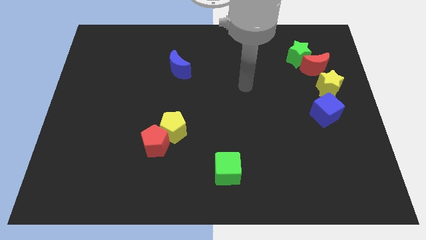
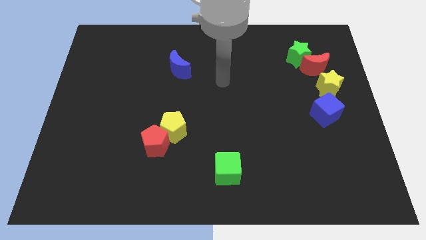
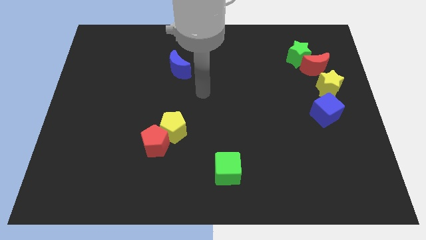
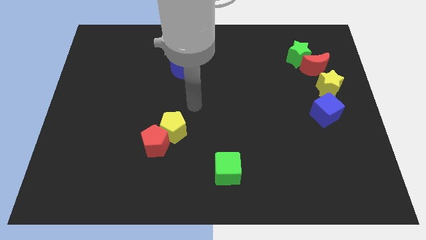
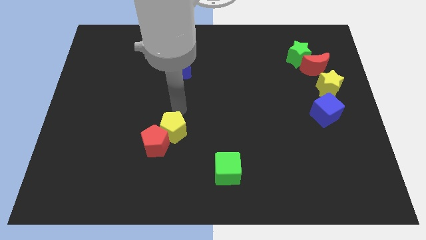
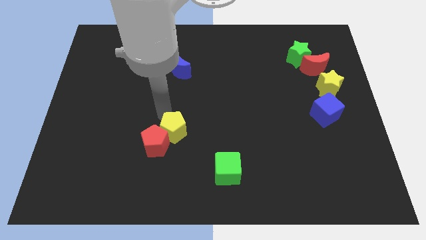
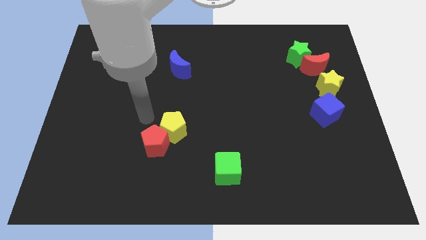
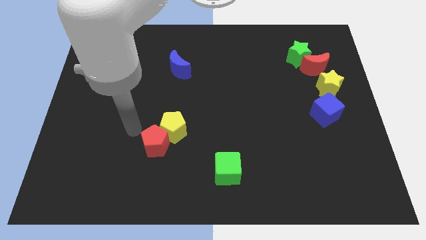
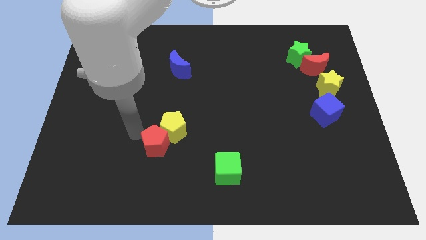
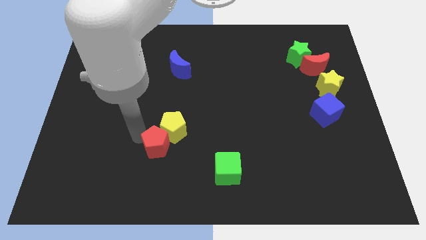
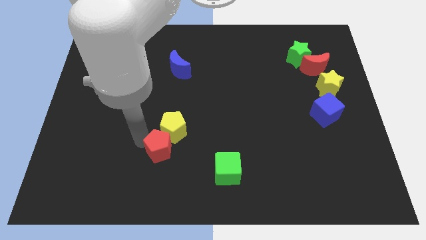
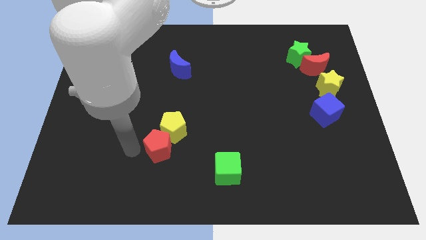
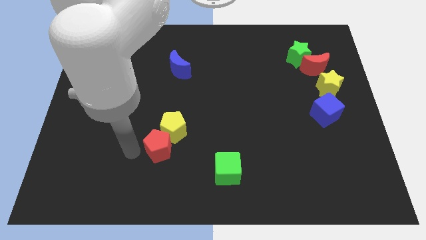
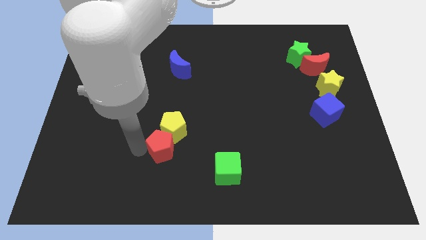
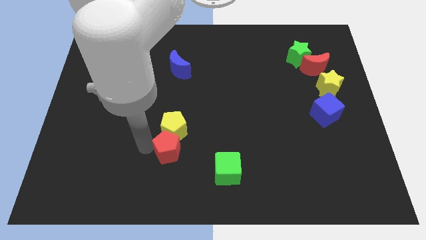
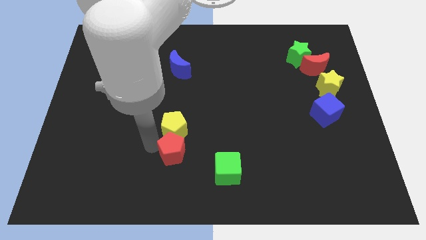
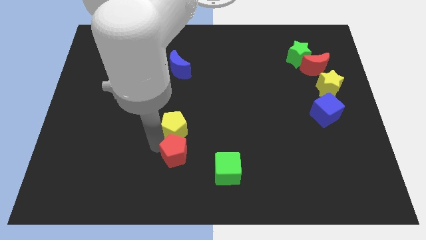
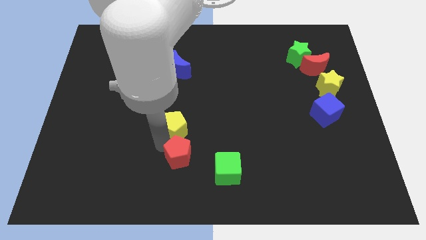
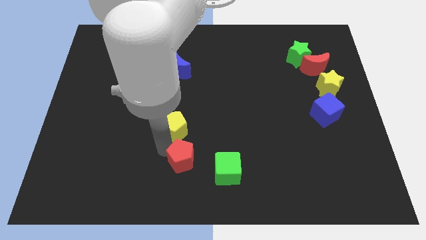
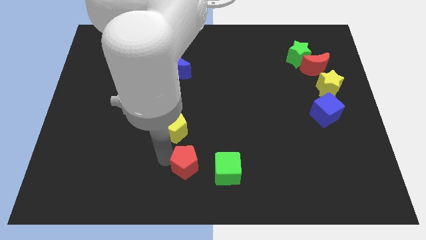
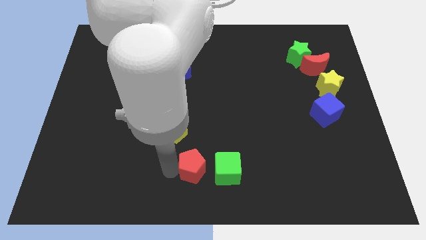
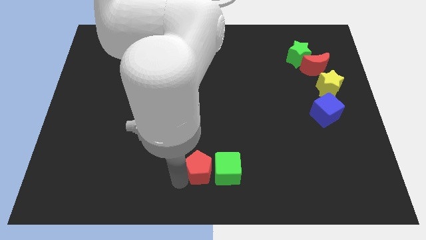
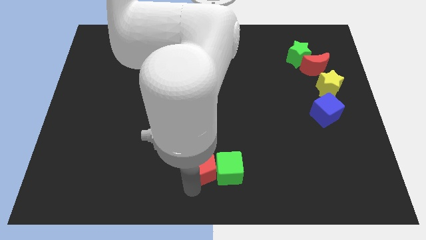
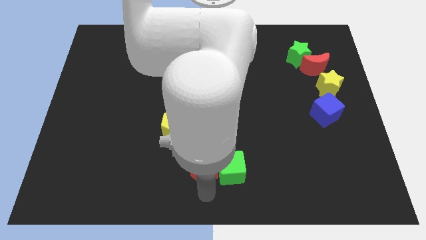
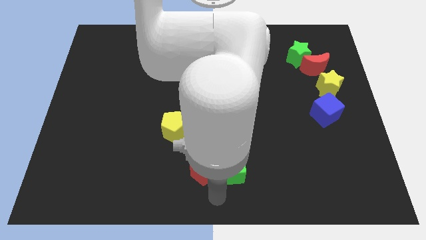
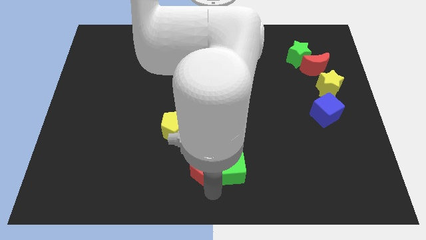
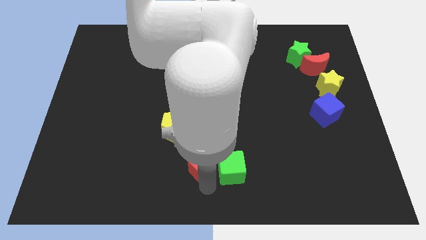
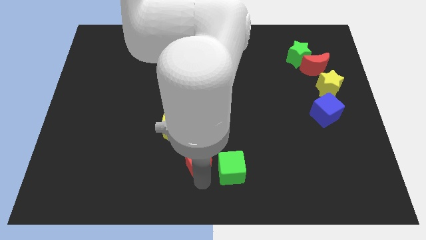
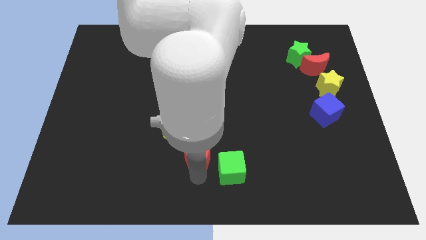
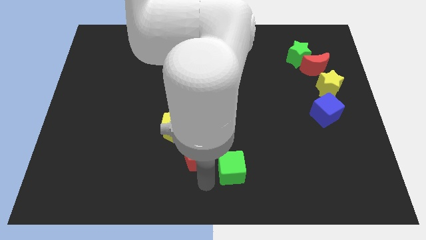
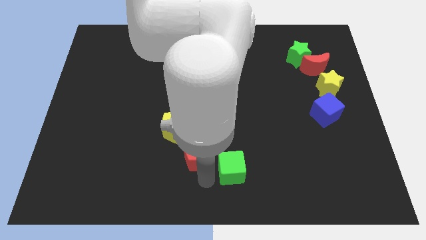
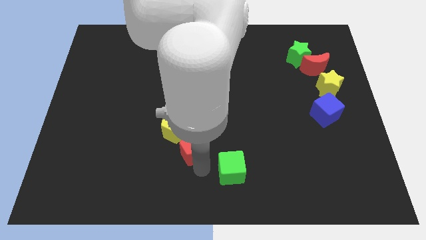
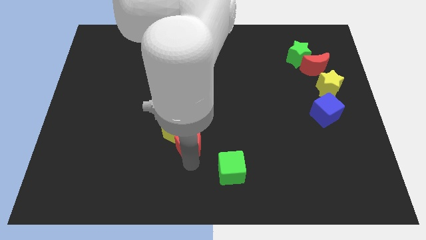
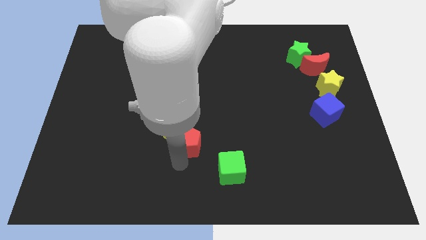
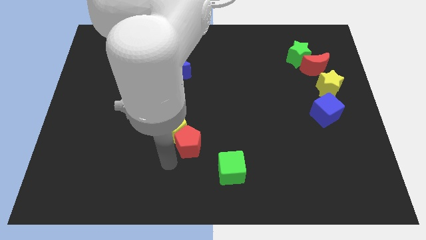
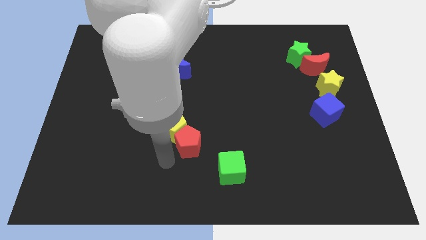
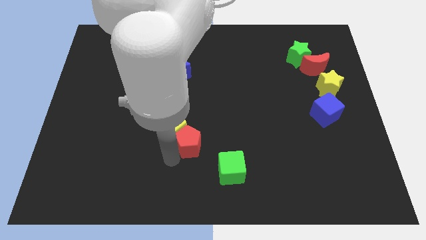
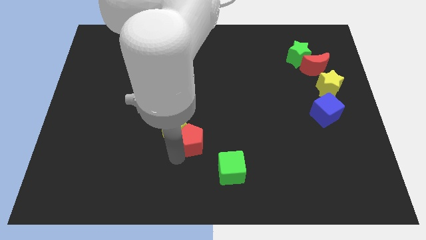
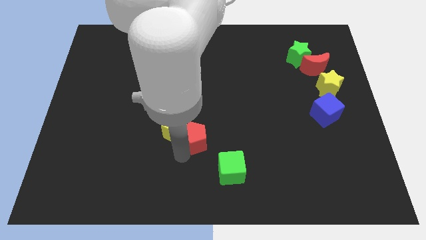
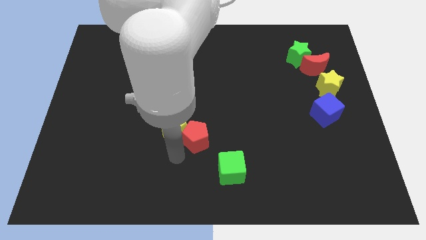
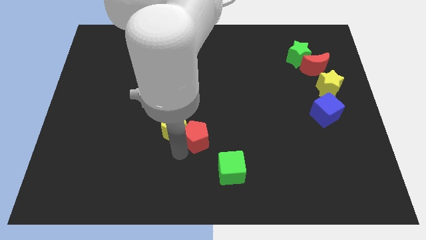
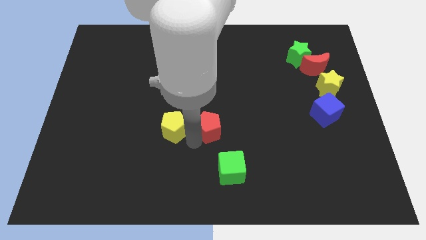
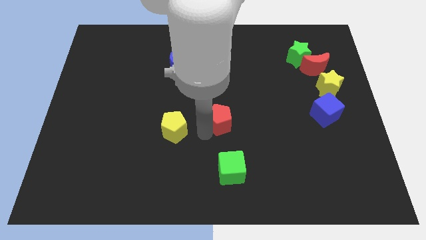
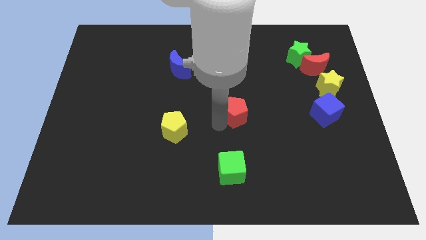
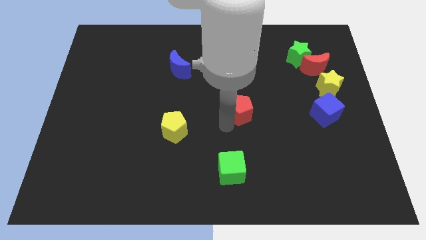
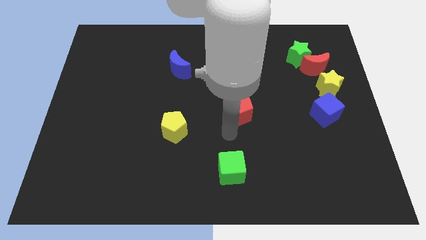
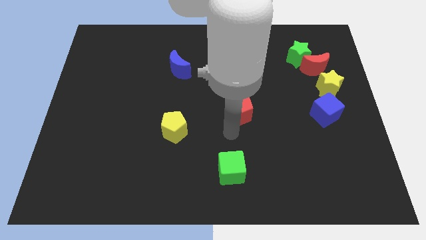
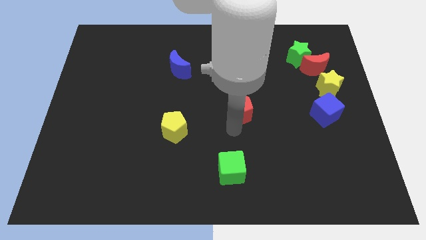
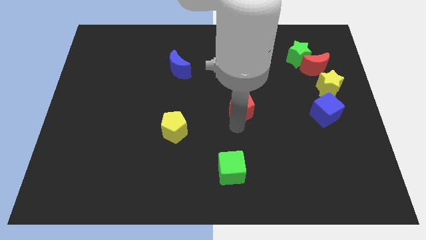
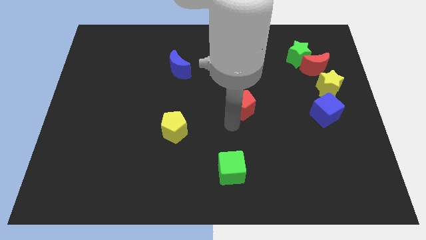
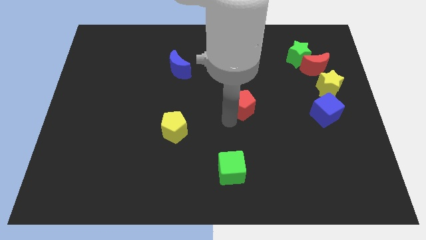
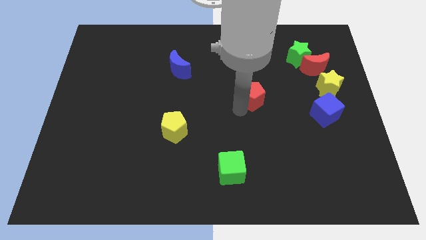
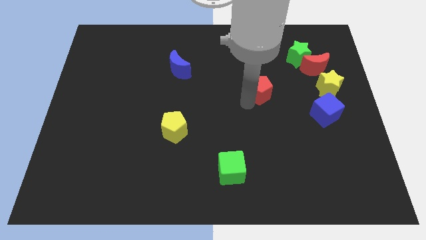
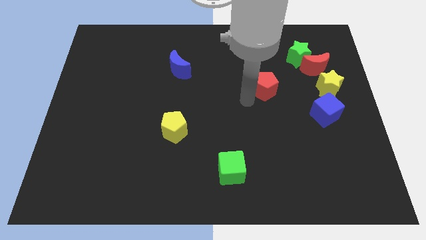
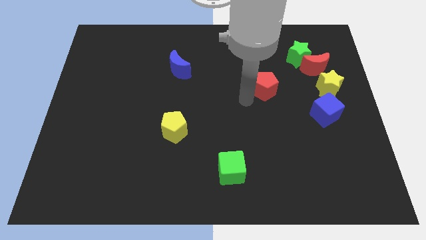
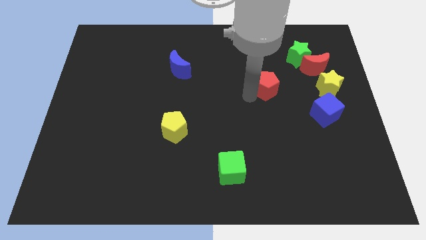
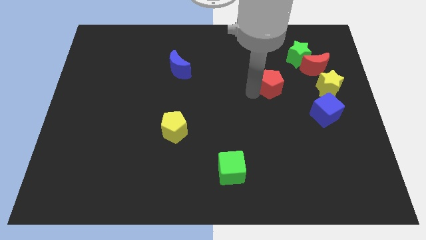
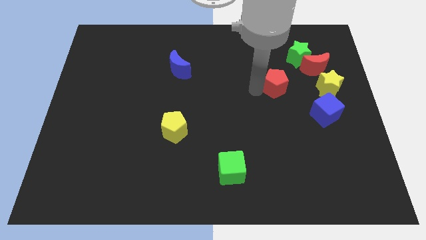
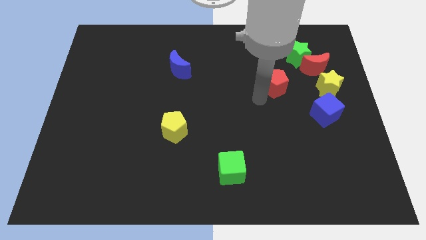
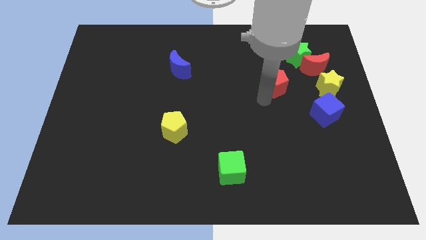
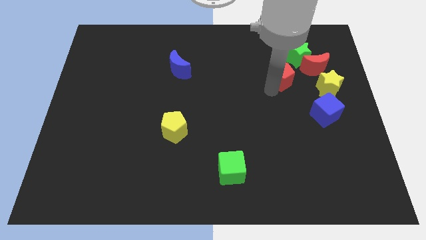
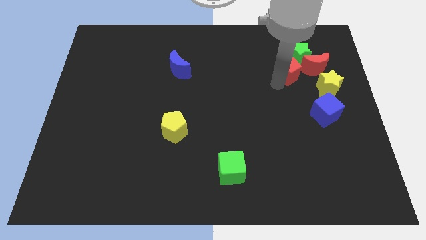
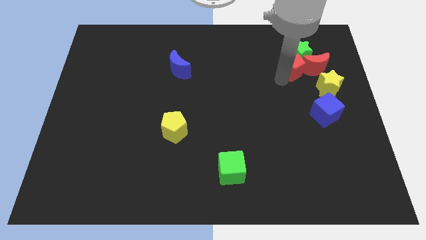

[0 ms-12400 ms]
move the red pentagon to the green star
